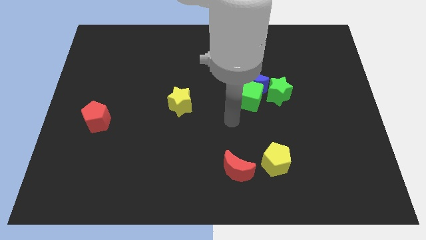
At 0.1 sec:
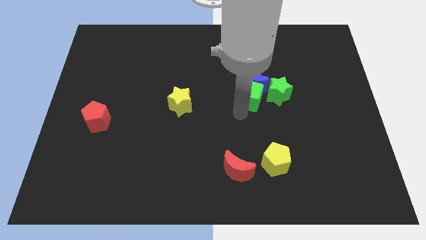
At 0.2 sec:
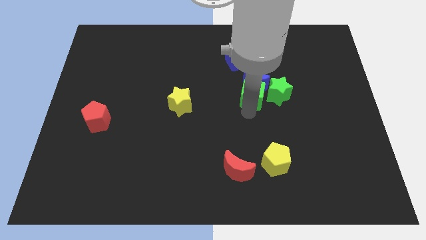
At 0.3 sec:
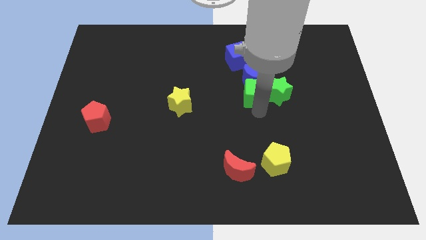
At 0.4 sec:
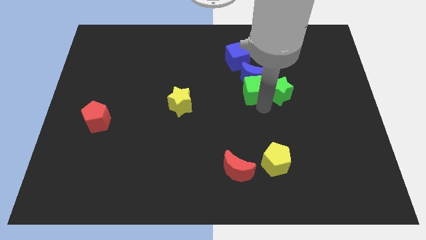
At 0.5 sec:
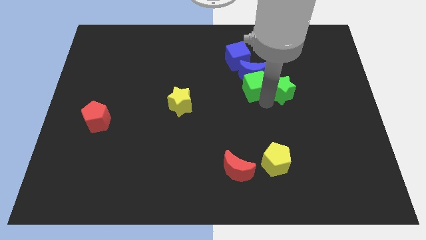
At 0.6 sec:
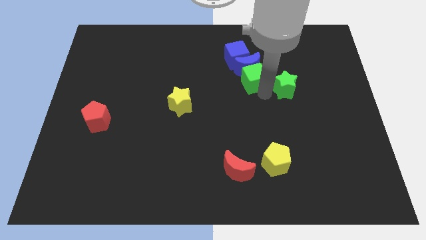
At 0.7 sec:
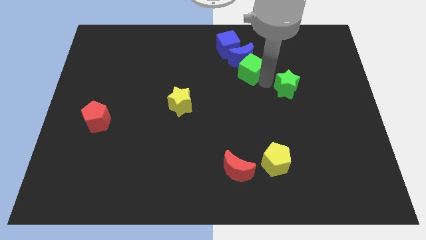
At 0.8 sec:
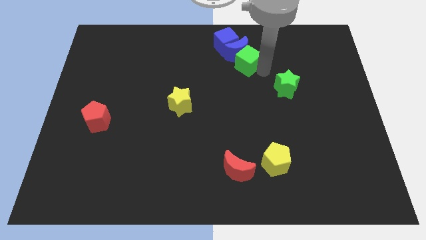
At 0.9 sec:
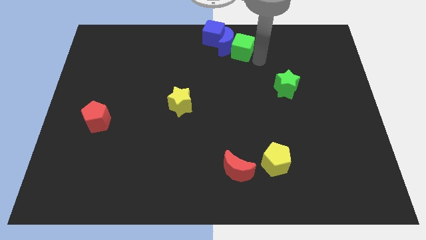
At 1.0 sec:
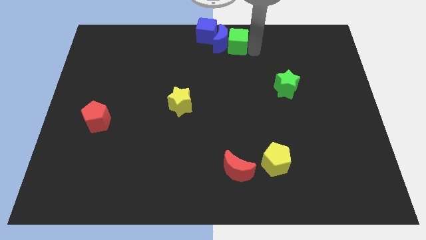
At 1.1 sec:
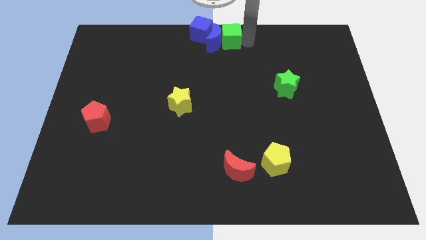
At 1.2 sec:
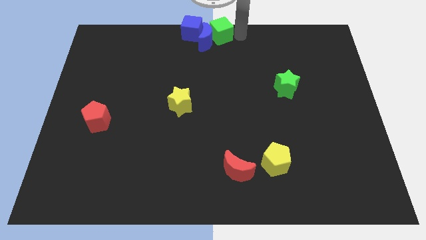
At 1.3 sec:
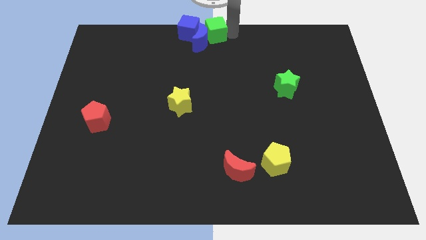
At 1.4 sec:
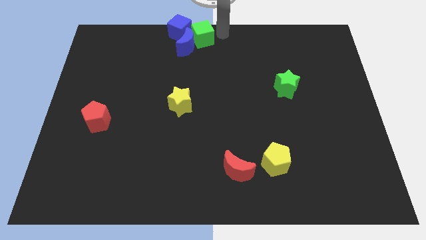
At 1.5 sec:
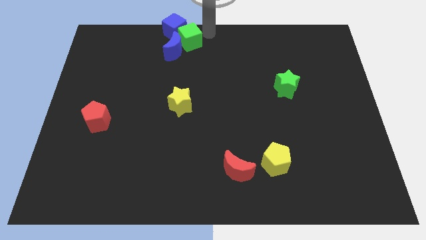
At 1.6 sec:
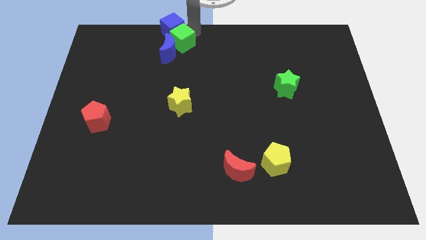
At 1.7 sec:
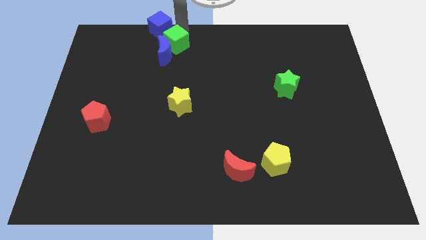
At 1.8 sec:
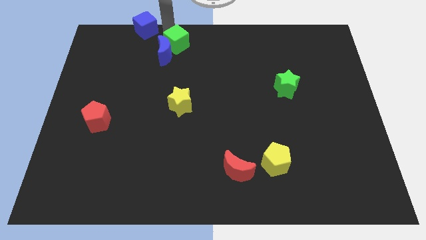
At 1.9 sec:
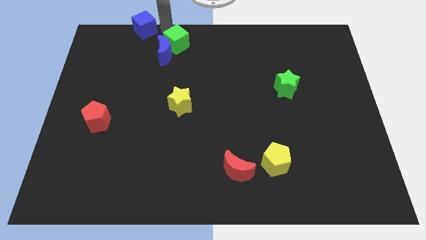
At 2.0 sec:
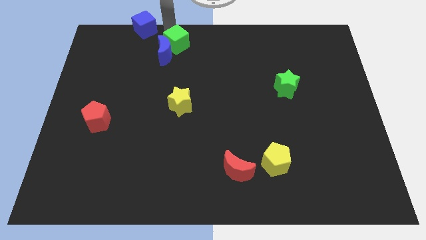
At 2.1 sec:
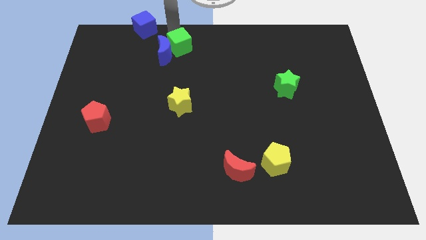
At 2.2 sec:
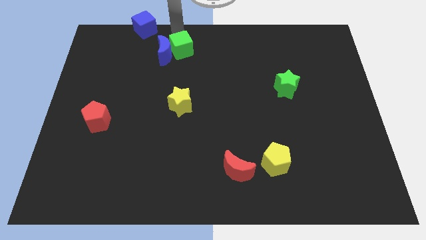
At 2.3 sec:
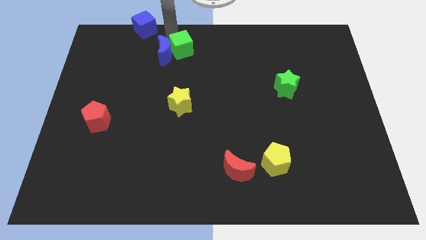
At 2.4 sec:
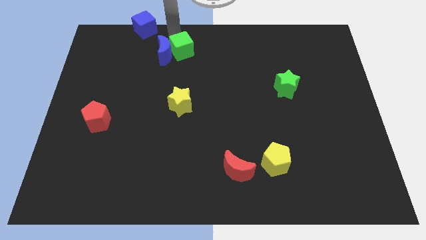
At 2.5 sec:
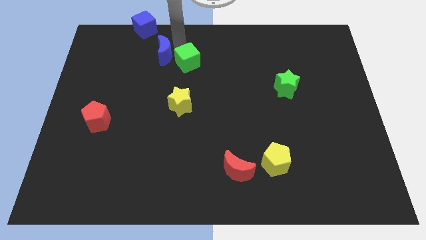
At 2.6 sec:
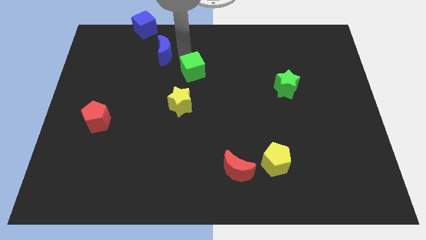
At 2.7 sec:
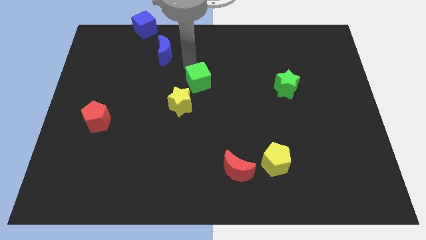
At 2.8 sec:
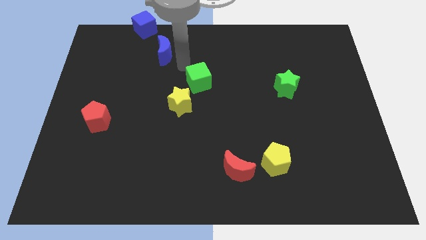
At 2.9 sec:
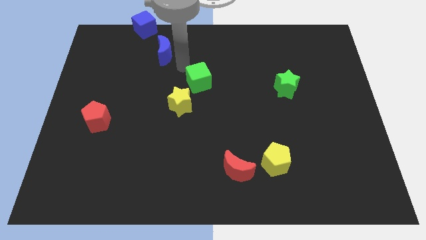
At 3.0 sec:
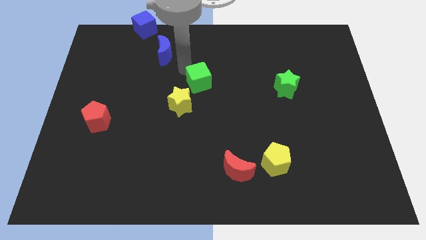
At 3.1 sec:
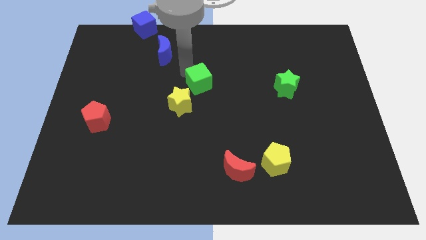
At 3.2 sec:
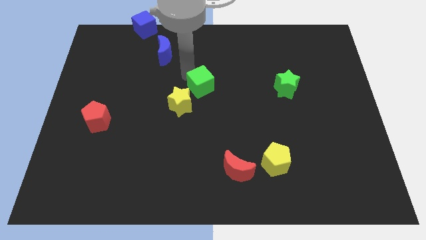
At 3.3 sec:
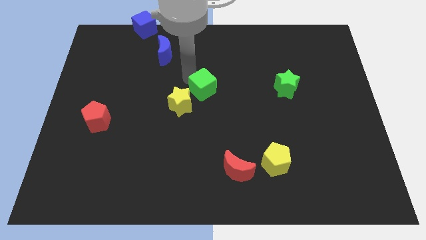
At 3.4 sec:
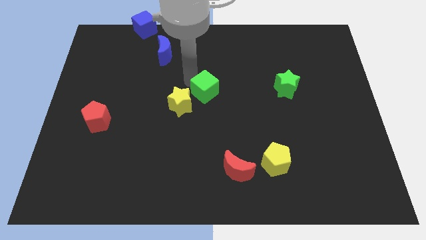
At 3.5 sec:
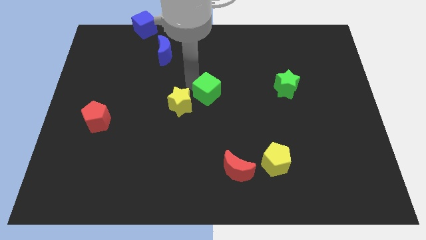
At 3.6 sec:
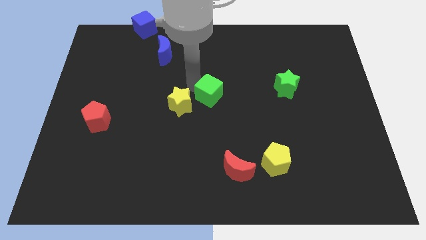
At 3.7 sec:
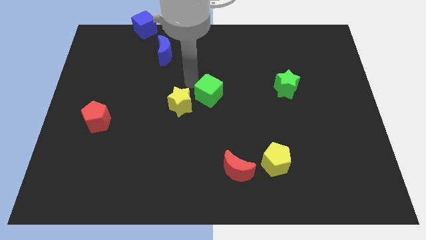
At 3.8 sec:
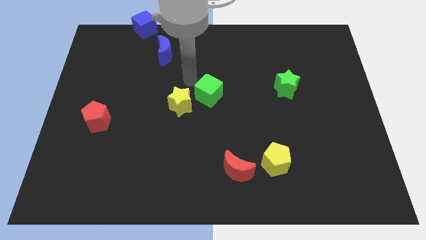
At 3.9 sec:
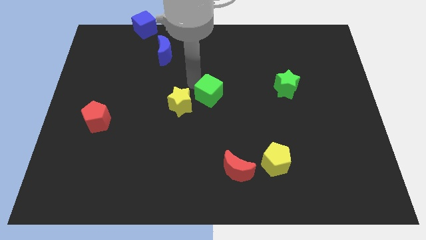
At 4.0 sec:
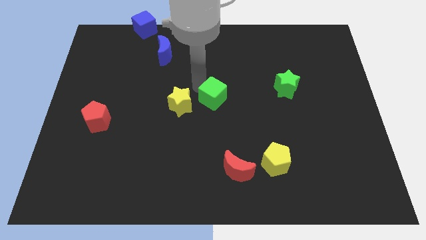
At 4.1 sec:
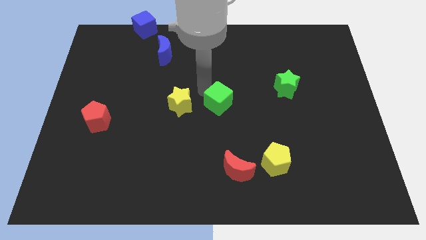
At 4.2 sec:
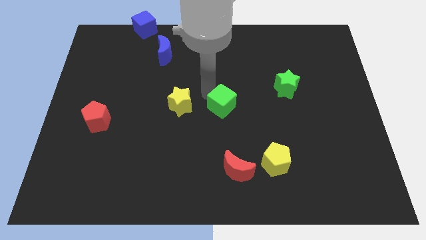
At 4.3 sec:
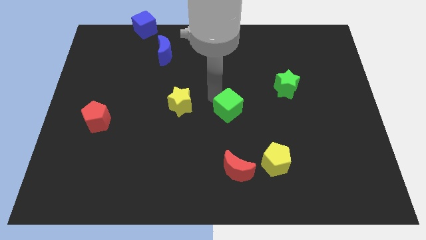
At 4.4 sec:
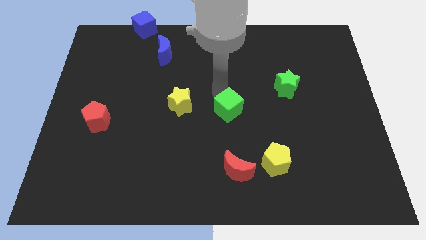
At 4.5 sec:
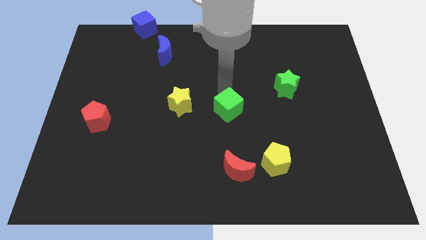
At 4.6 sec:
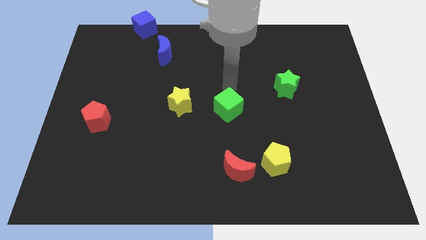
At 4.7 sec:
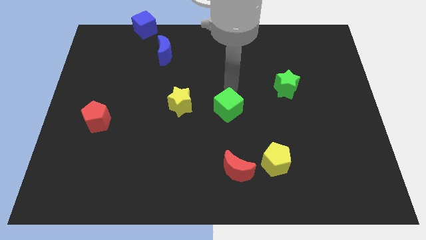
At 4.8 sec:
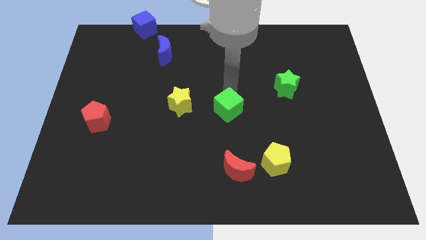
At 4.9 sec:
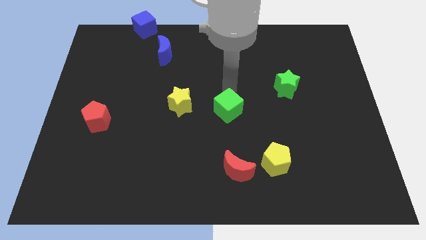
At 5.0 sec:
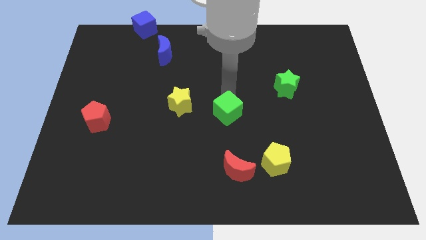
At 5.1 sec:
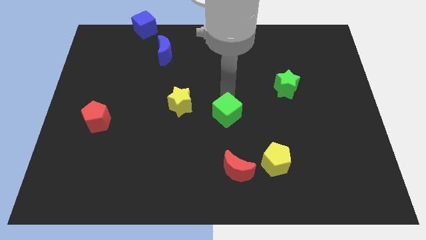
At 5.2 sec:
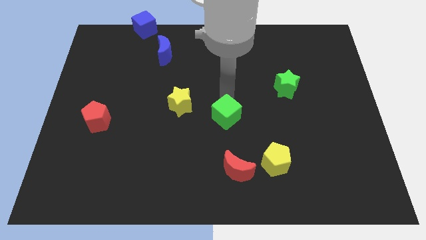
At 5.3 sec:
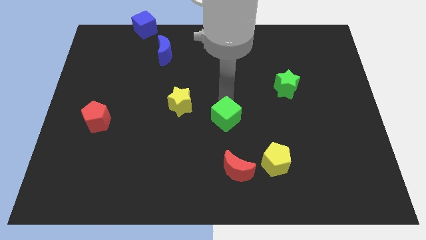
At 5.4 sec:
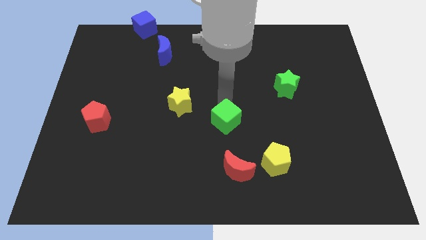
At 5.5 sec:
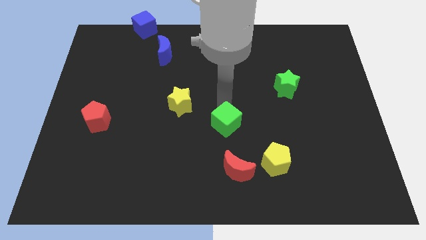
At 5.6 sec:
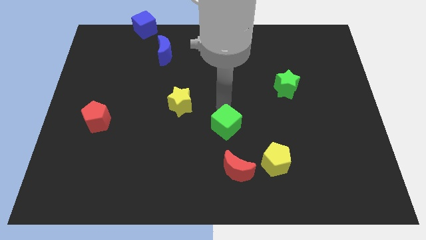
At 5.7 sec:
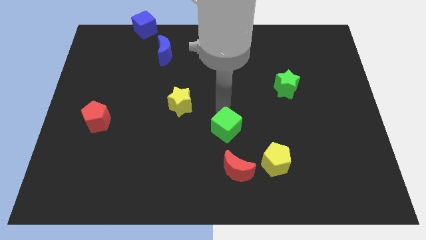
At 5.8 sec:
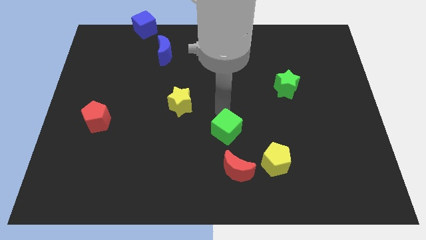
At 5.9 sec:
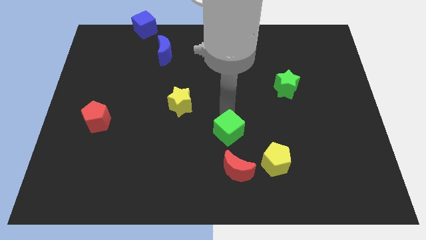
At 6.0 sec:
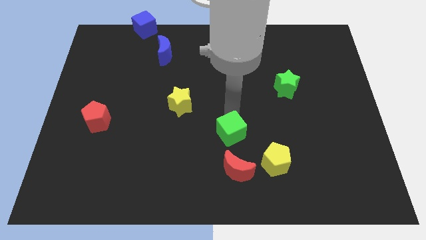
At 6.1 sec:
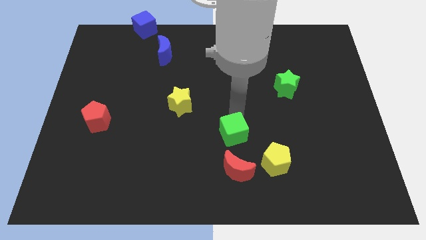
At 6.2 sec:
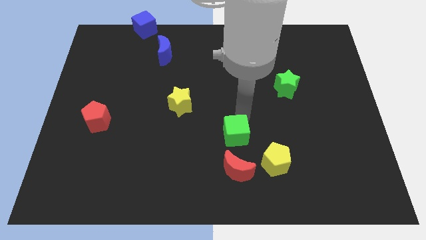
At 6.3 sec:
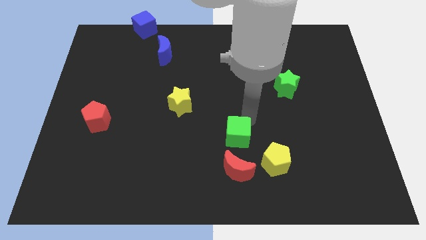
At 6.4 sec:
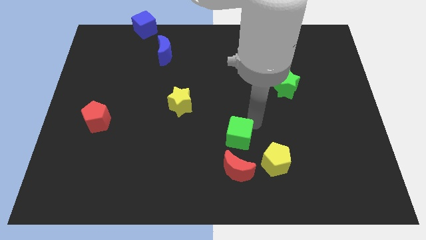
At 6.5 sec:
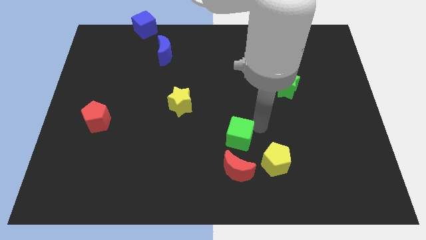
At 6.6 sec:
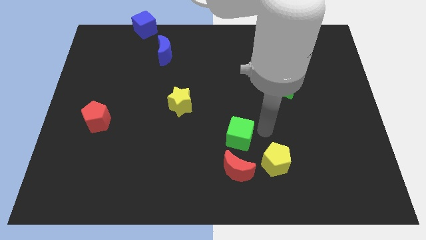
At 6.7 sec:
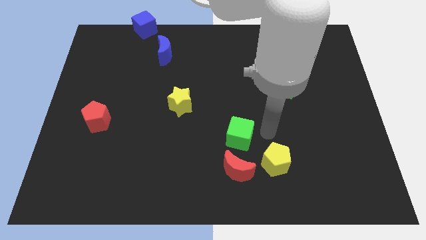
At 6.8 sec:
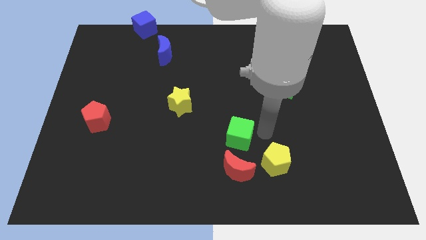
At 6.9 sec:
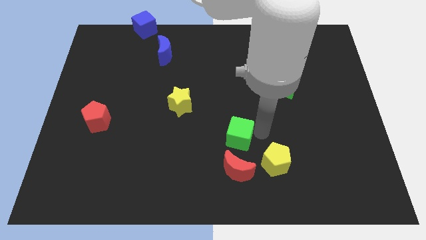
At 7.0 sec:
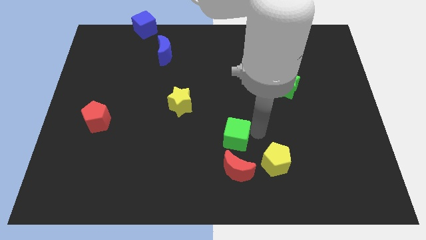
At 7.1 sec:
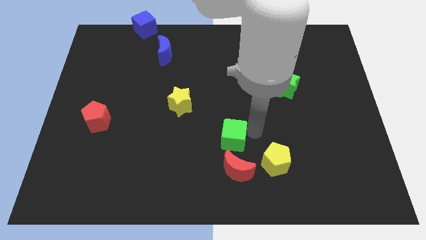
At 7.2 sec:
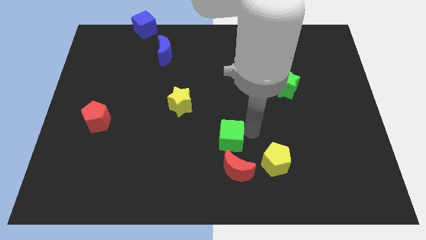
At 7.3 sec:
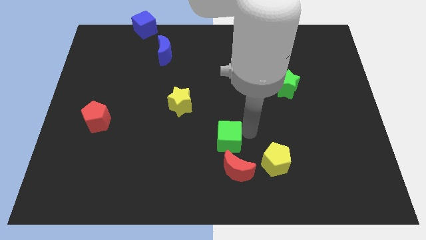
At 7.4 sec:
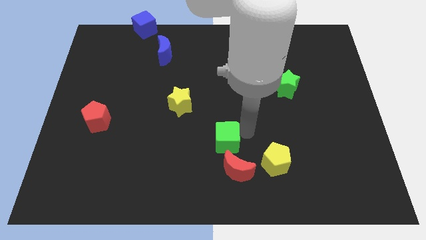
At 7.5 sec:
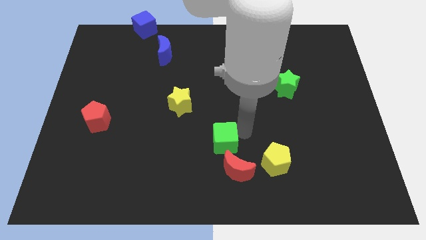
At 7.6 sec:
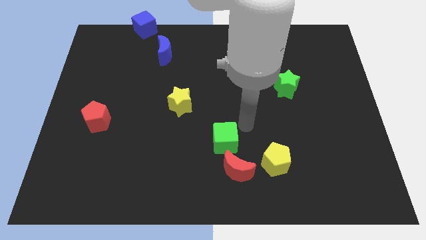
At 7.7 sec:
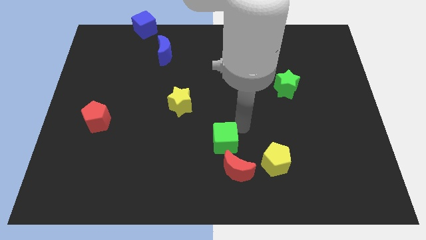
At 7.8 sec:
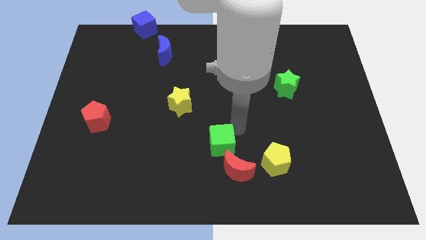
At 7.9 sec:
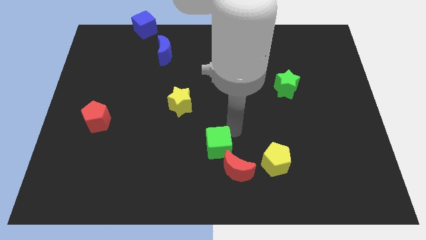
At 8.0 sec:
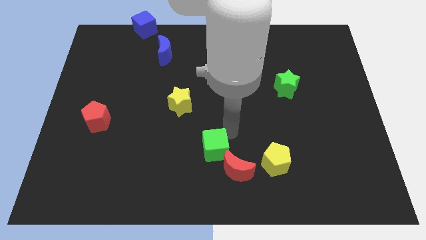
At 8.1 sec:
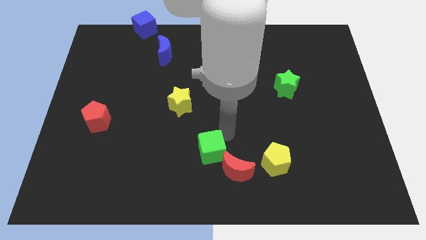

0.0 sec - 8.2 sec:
slide the green cube just left of the red moon
